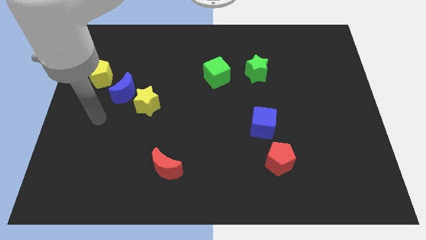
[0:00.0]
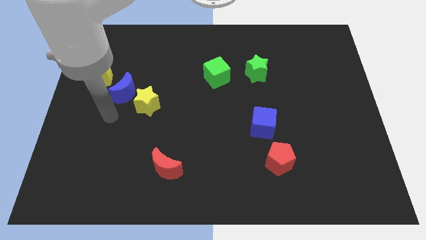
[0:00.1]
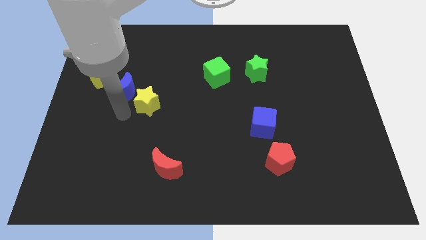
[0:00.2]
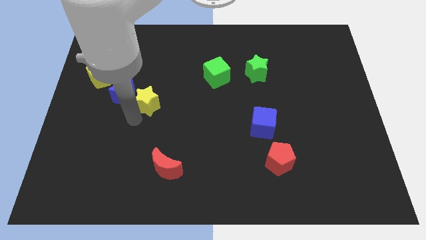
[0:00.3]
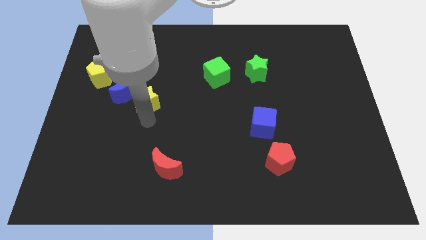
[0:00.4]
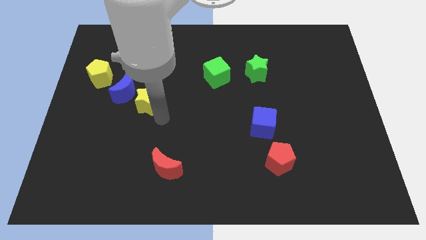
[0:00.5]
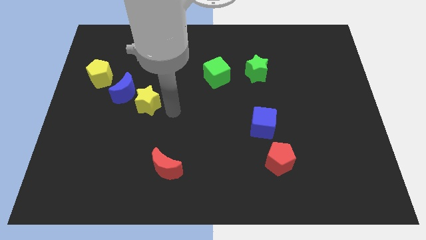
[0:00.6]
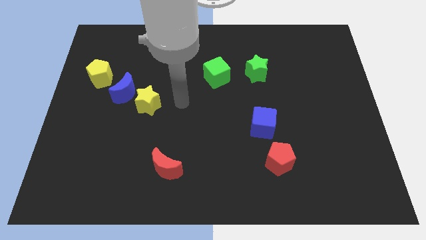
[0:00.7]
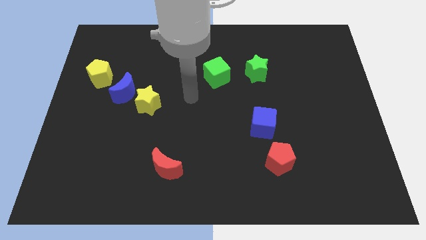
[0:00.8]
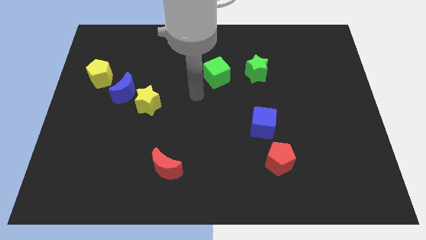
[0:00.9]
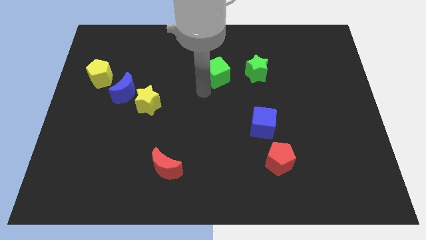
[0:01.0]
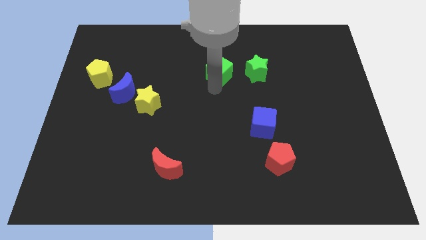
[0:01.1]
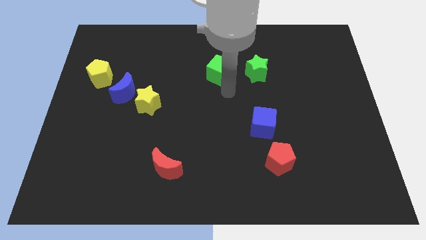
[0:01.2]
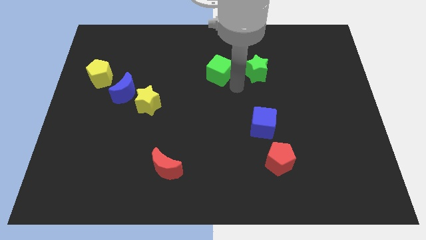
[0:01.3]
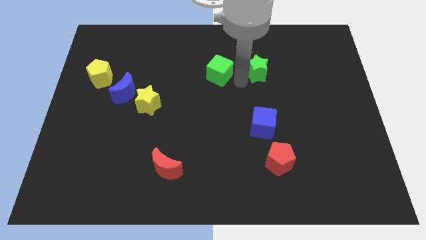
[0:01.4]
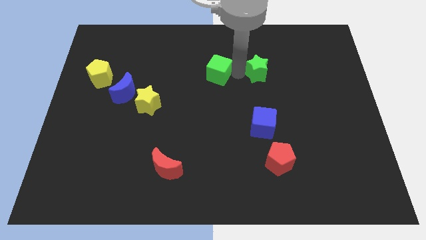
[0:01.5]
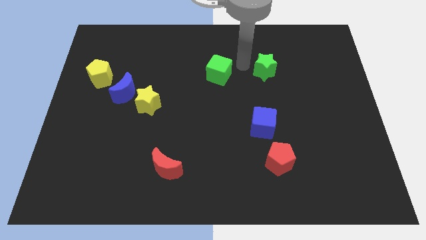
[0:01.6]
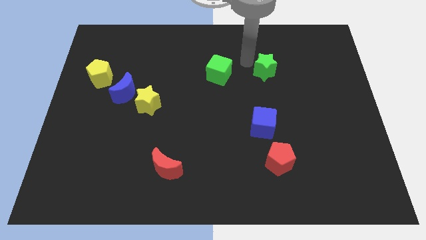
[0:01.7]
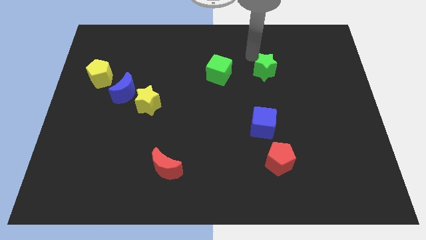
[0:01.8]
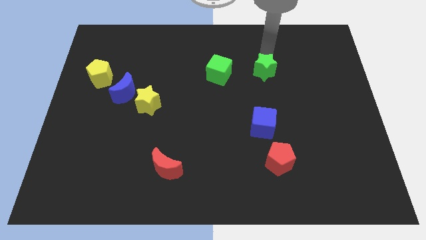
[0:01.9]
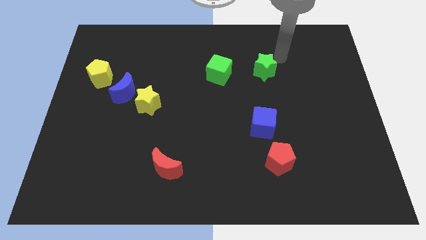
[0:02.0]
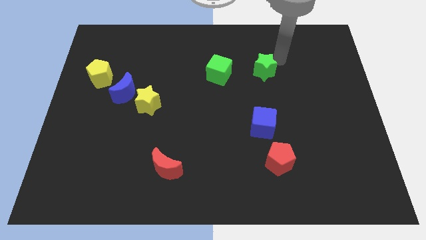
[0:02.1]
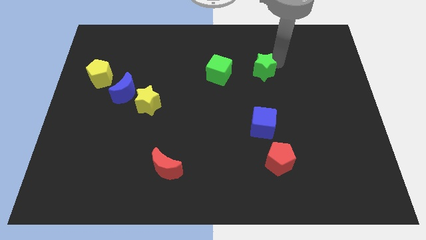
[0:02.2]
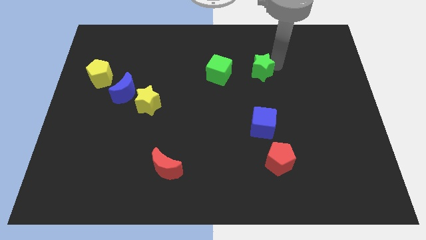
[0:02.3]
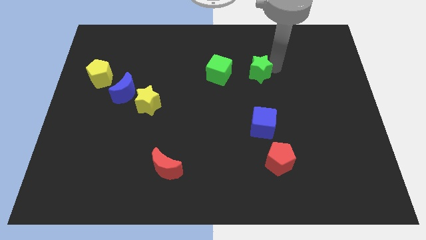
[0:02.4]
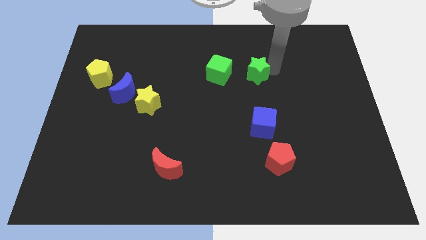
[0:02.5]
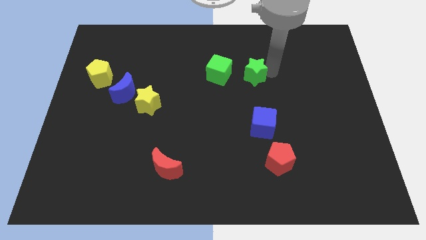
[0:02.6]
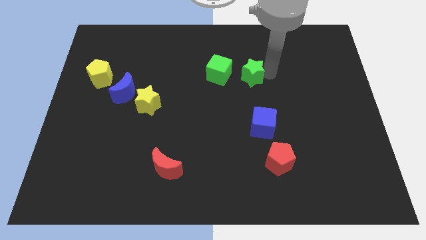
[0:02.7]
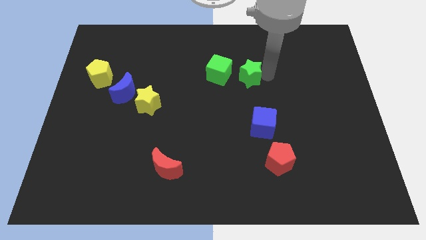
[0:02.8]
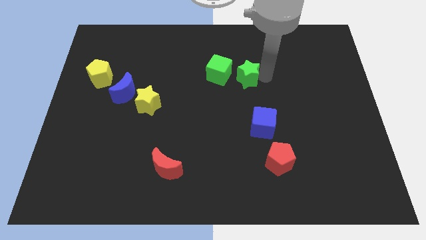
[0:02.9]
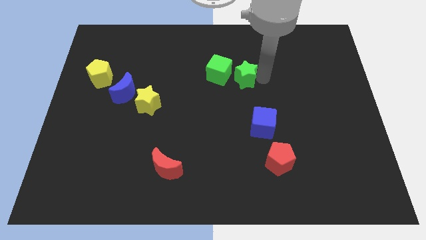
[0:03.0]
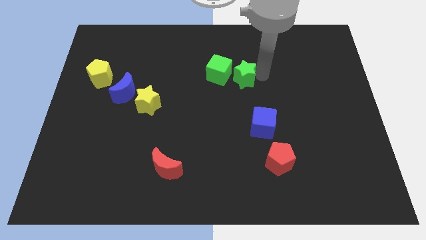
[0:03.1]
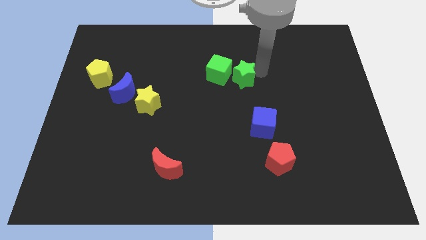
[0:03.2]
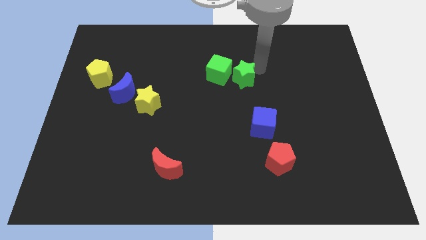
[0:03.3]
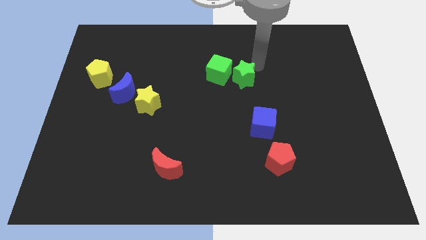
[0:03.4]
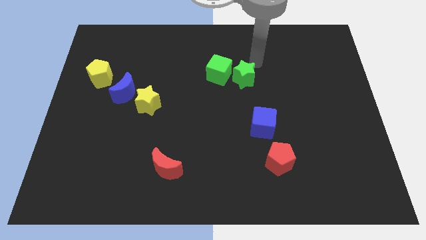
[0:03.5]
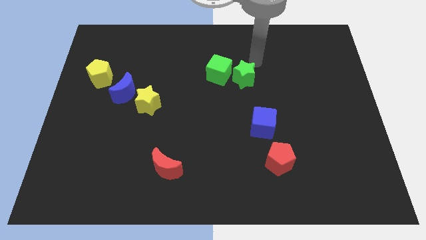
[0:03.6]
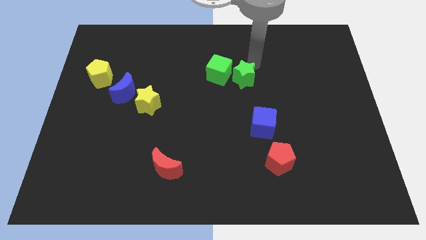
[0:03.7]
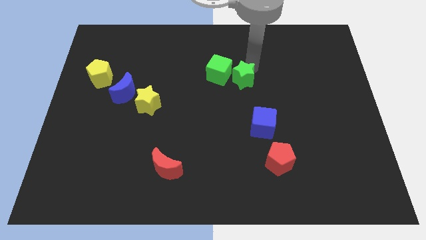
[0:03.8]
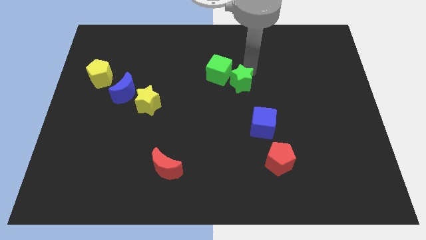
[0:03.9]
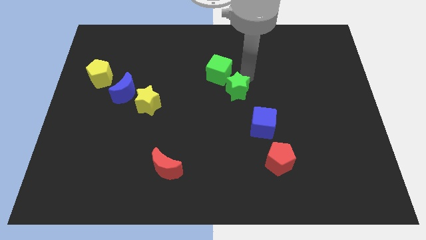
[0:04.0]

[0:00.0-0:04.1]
slightly push the green star downwards and to the left diagonally

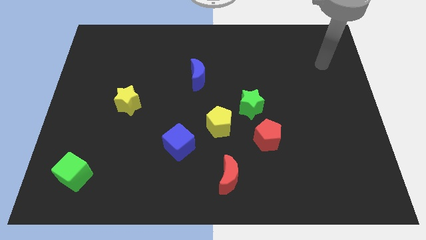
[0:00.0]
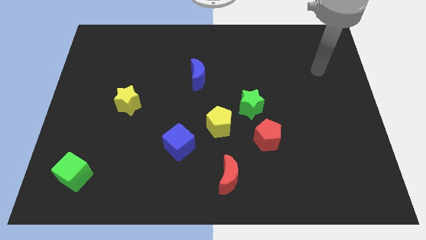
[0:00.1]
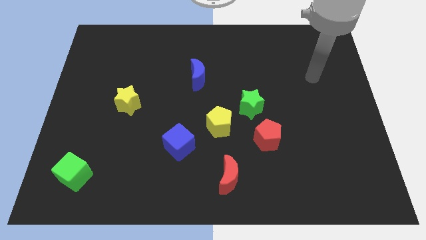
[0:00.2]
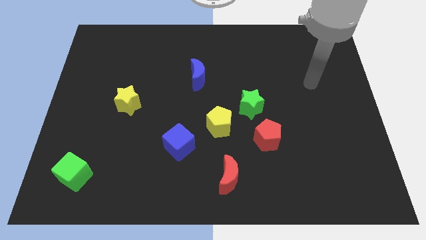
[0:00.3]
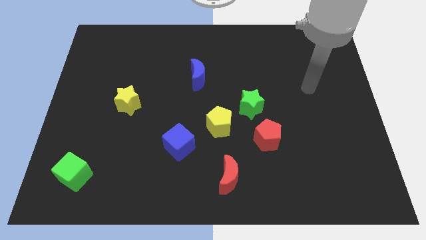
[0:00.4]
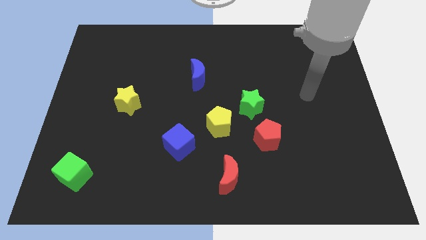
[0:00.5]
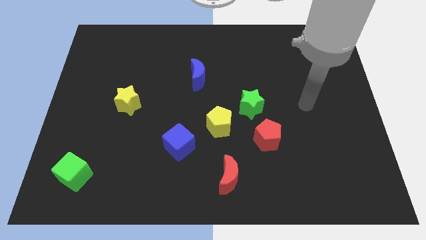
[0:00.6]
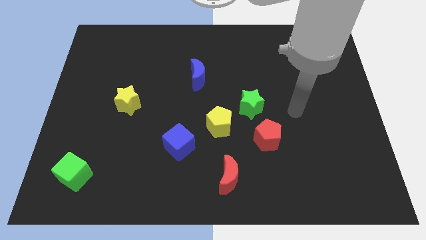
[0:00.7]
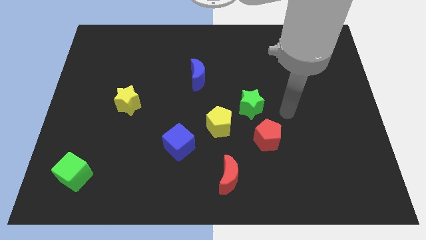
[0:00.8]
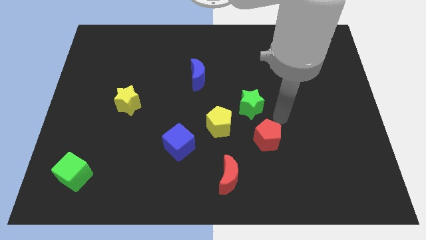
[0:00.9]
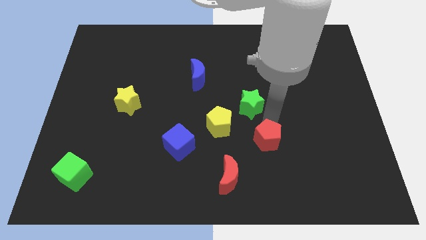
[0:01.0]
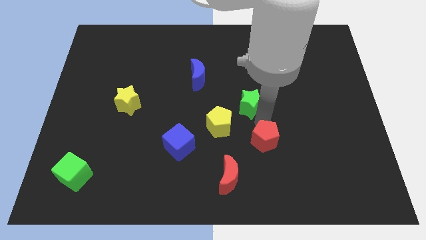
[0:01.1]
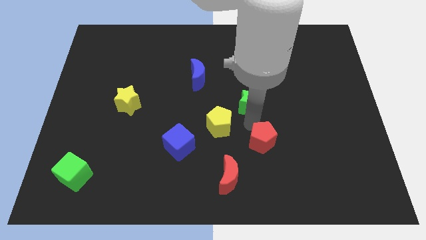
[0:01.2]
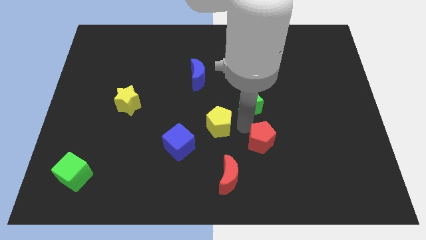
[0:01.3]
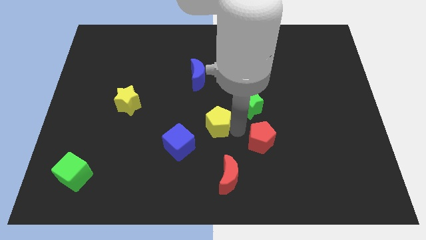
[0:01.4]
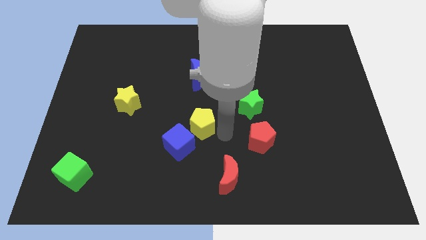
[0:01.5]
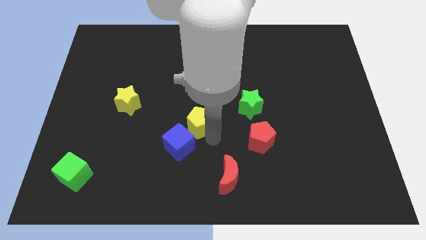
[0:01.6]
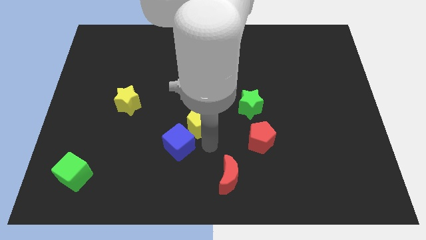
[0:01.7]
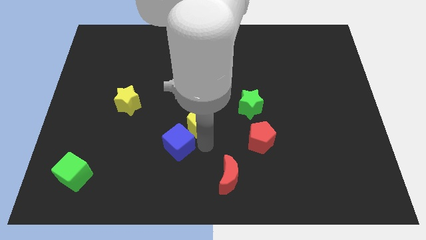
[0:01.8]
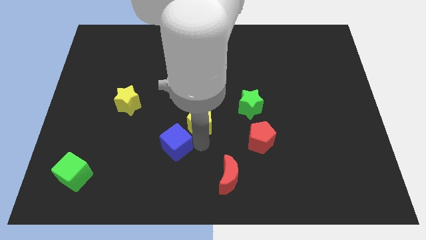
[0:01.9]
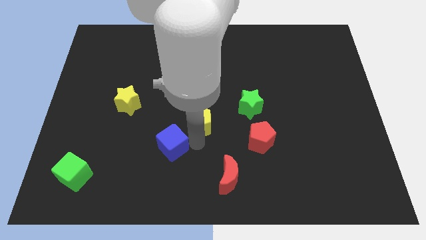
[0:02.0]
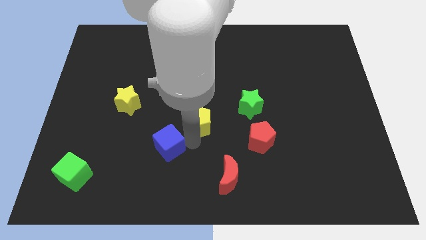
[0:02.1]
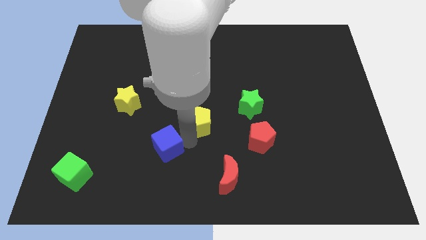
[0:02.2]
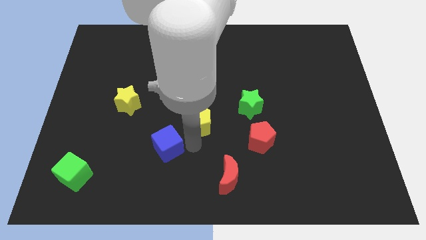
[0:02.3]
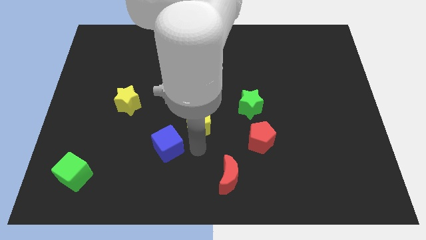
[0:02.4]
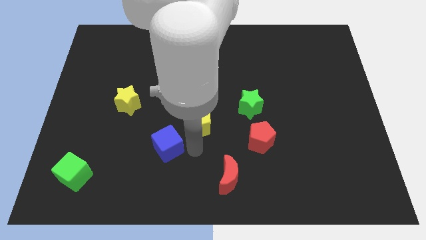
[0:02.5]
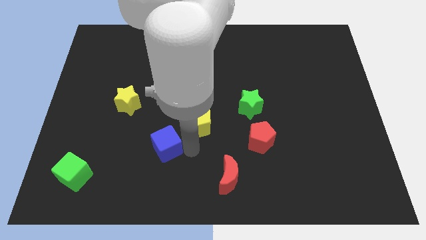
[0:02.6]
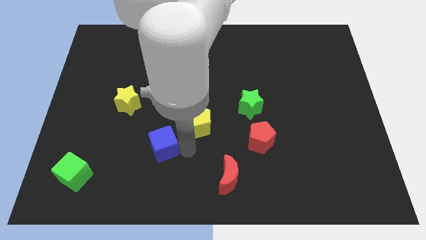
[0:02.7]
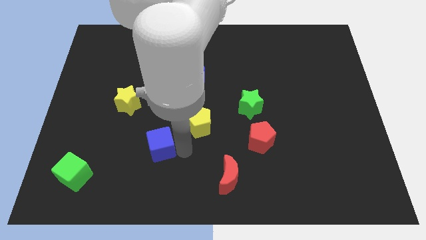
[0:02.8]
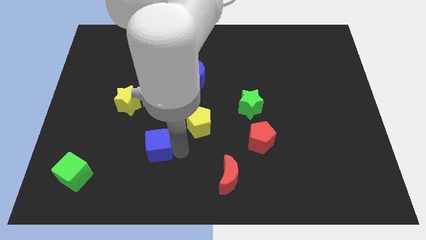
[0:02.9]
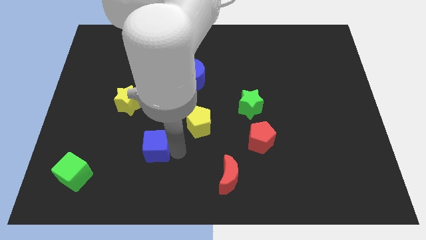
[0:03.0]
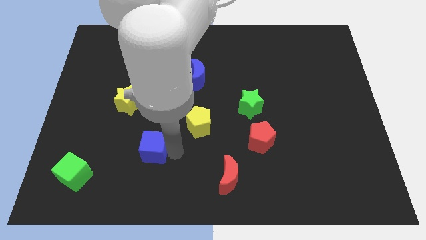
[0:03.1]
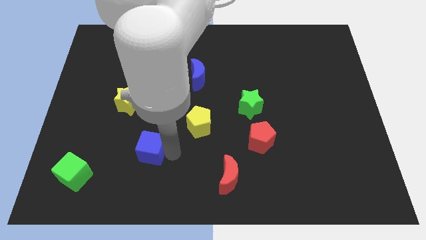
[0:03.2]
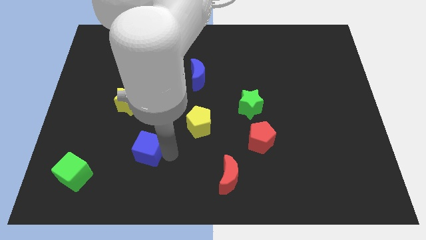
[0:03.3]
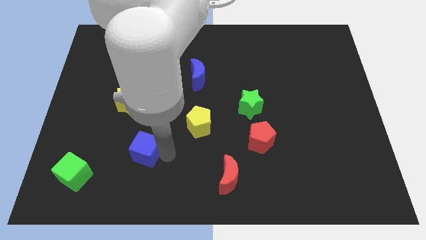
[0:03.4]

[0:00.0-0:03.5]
slightly slide the blue cube left

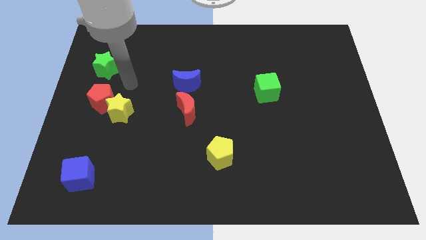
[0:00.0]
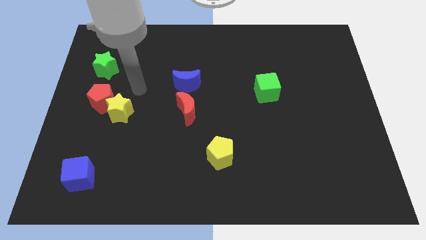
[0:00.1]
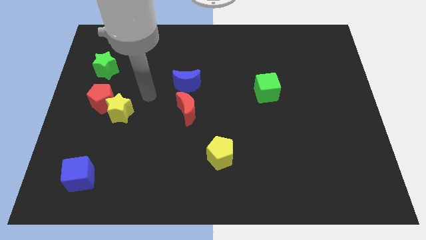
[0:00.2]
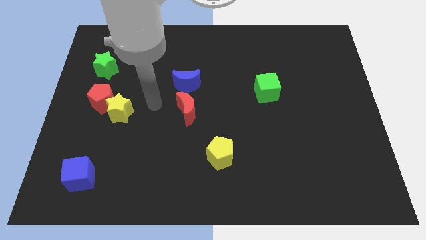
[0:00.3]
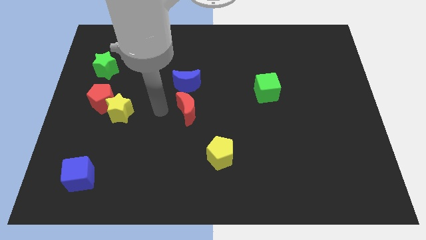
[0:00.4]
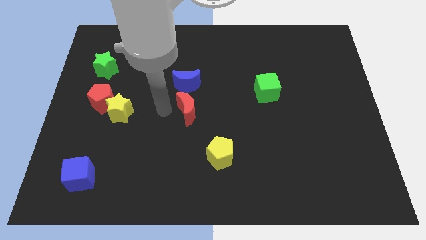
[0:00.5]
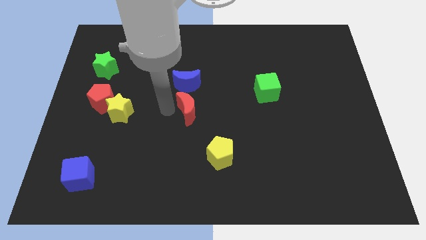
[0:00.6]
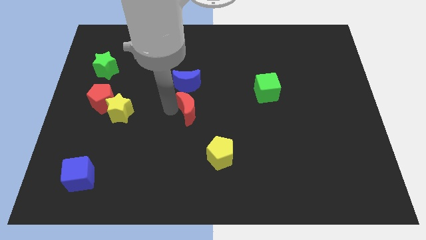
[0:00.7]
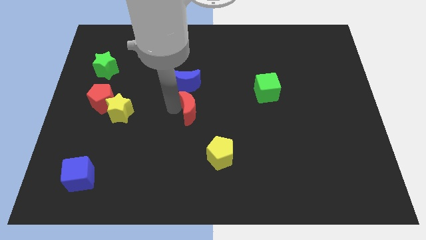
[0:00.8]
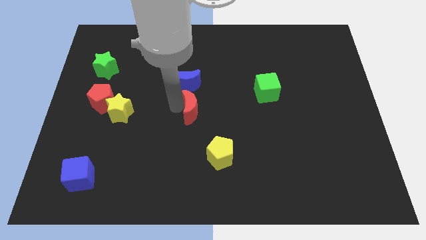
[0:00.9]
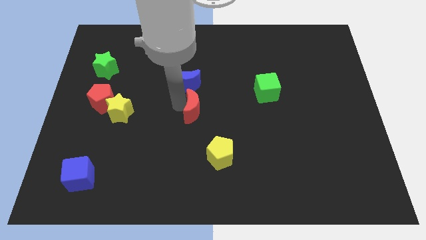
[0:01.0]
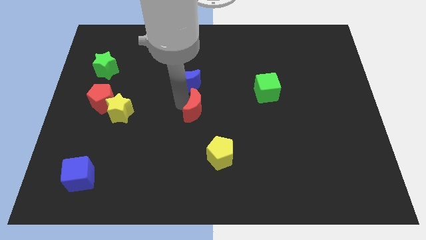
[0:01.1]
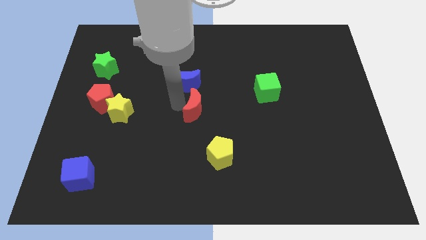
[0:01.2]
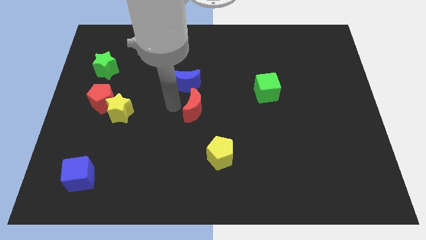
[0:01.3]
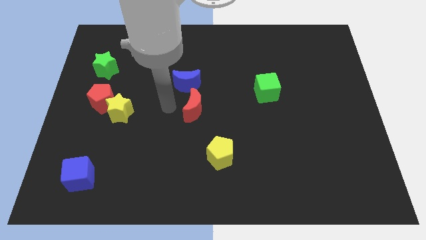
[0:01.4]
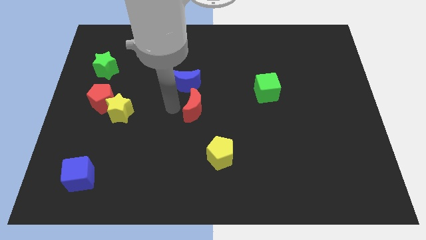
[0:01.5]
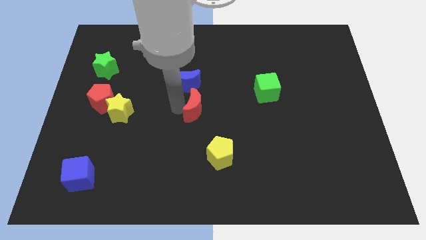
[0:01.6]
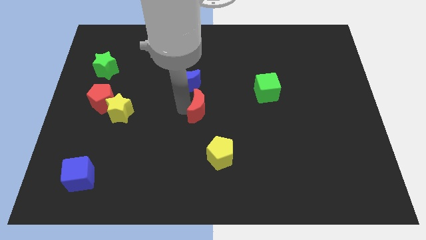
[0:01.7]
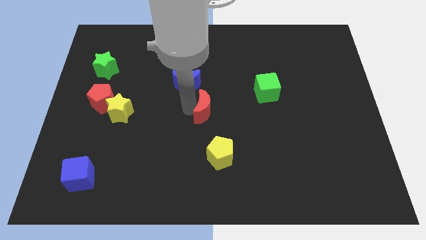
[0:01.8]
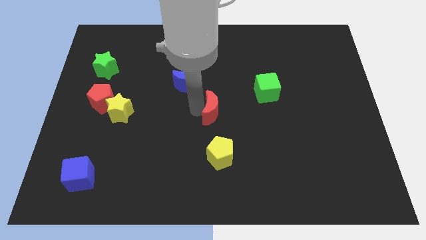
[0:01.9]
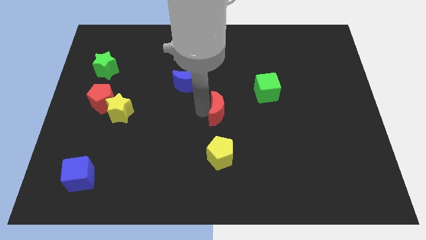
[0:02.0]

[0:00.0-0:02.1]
slide the red moon right a little
